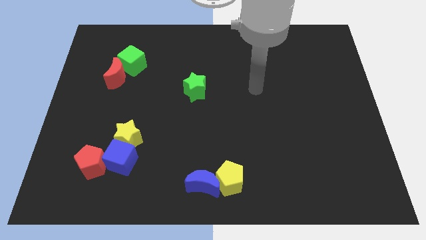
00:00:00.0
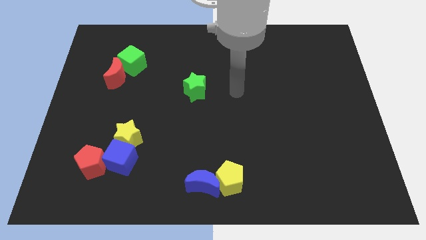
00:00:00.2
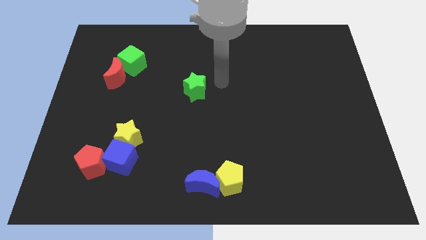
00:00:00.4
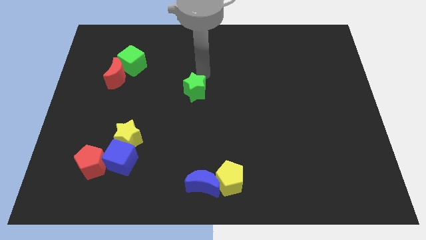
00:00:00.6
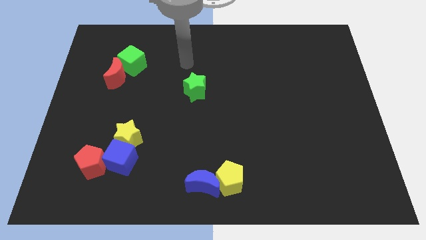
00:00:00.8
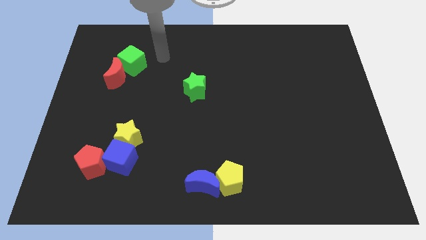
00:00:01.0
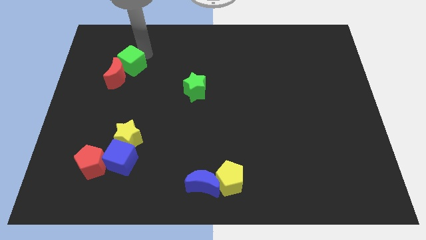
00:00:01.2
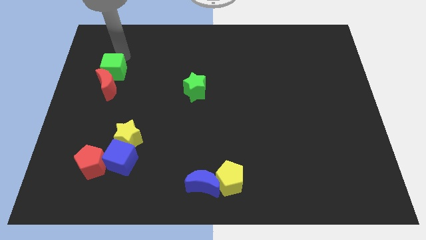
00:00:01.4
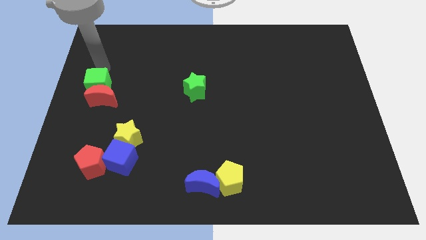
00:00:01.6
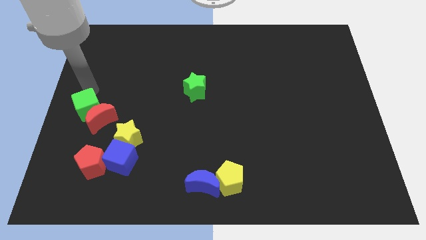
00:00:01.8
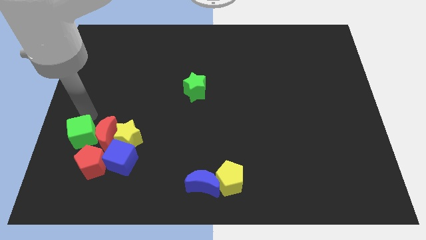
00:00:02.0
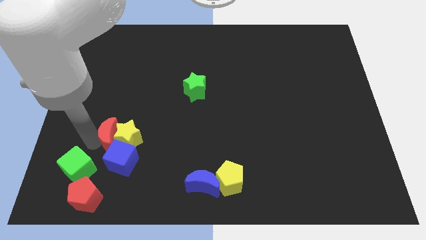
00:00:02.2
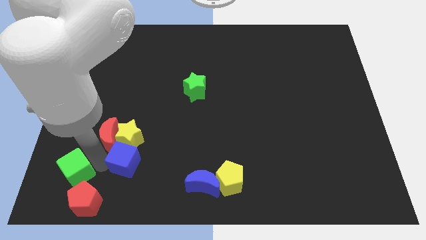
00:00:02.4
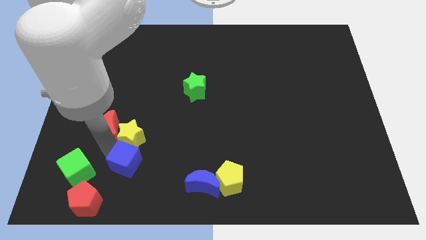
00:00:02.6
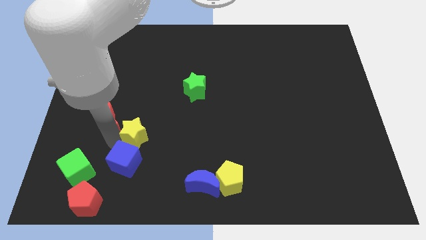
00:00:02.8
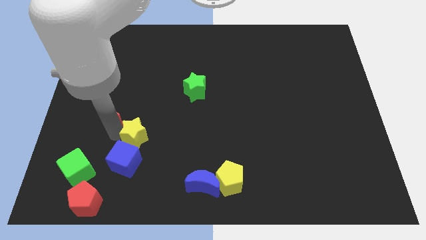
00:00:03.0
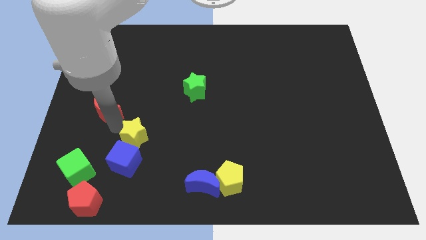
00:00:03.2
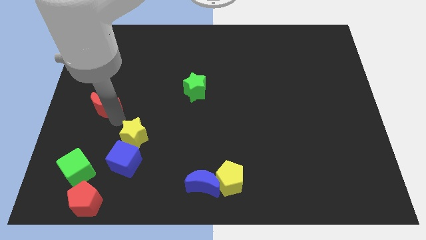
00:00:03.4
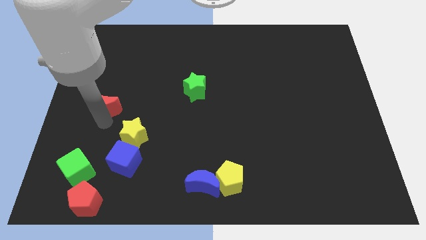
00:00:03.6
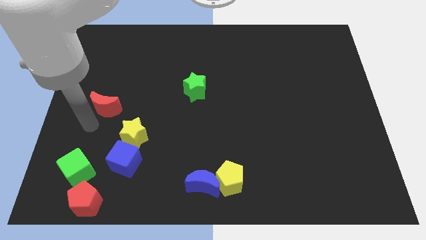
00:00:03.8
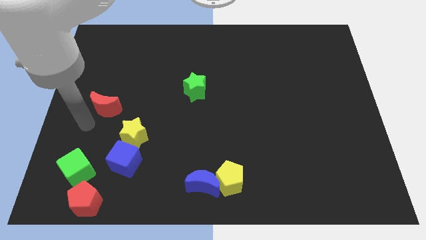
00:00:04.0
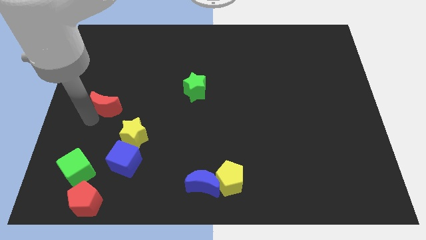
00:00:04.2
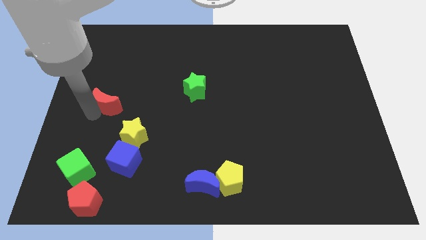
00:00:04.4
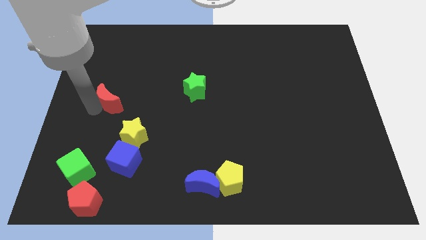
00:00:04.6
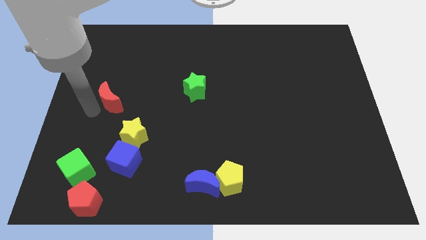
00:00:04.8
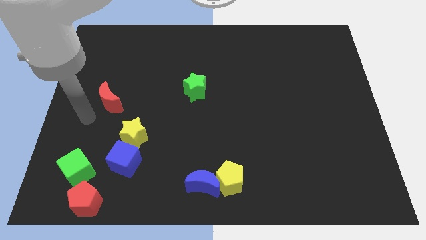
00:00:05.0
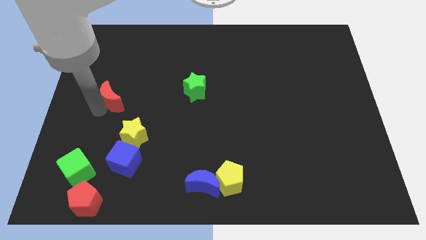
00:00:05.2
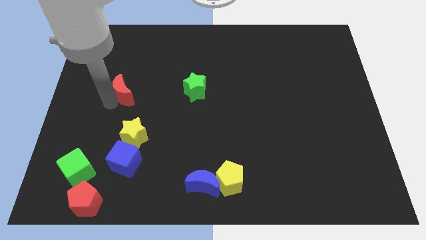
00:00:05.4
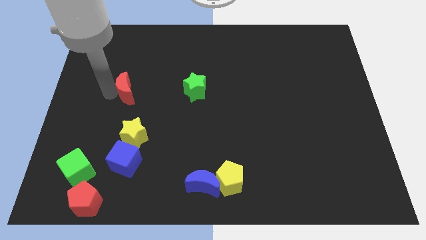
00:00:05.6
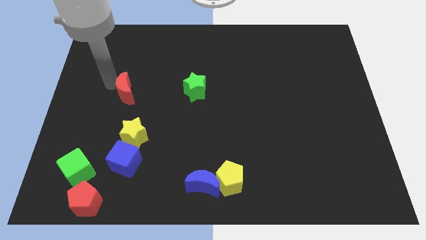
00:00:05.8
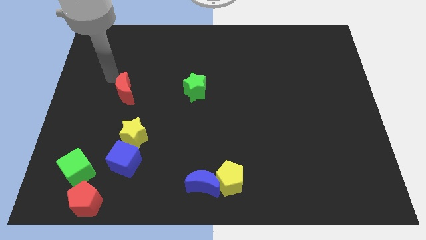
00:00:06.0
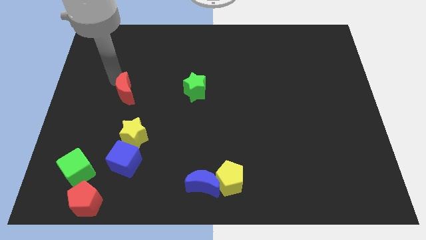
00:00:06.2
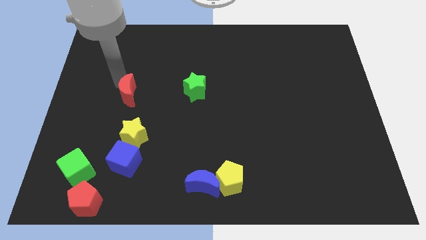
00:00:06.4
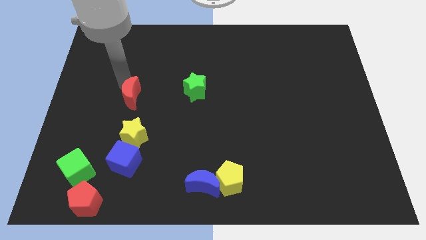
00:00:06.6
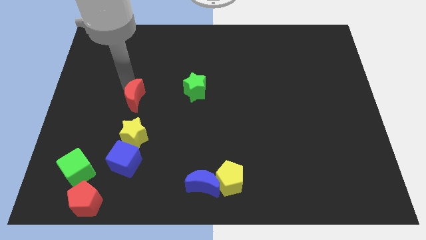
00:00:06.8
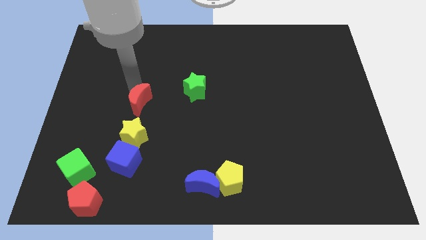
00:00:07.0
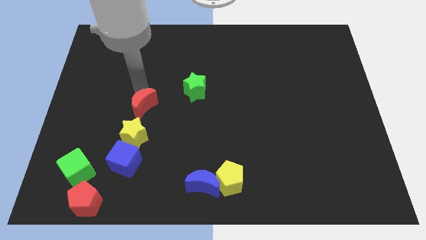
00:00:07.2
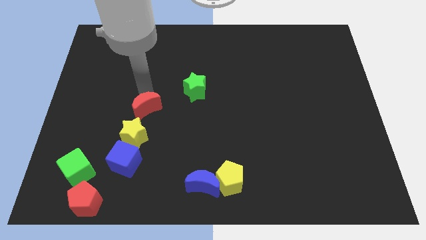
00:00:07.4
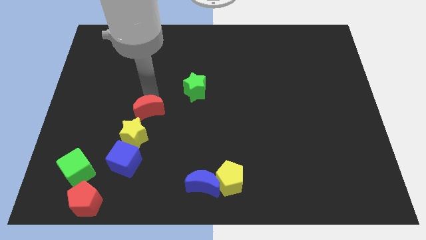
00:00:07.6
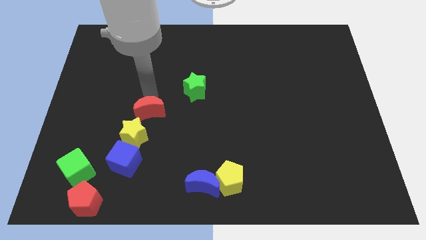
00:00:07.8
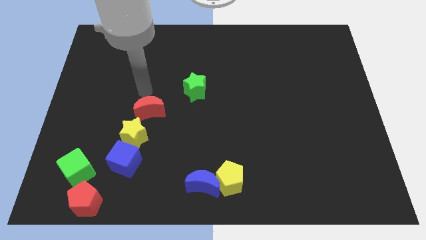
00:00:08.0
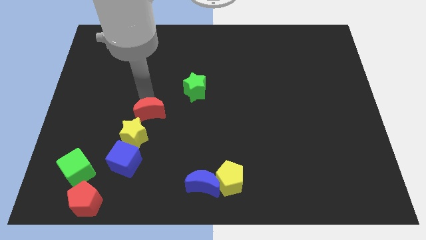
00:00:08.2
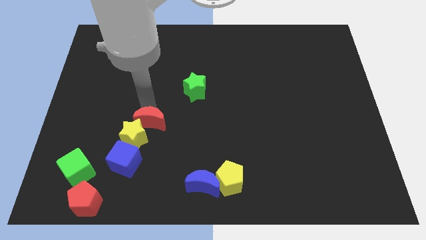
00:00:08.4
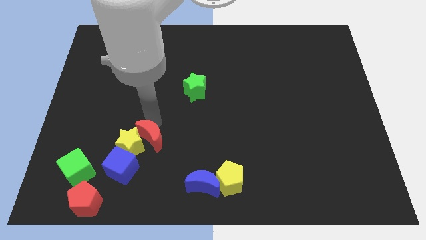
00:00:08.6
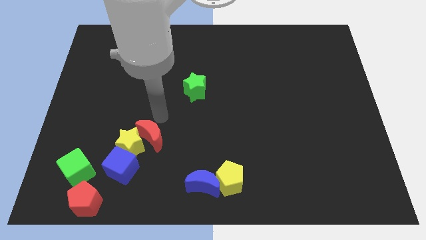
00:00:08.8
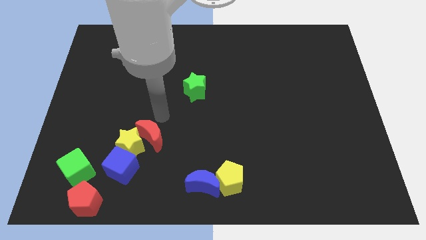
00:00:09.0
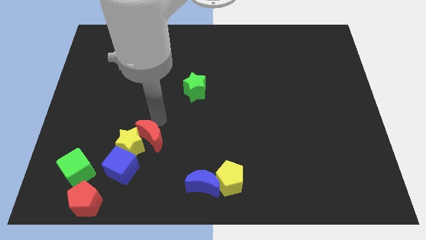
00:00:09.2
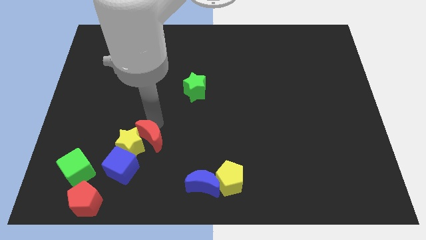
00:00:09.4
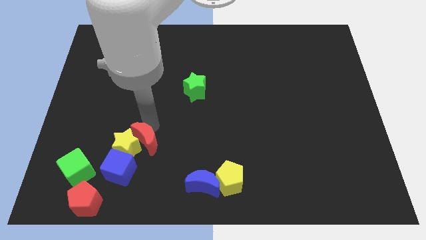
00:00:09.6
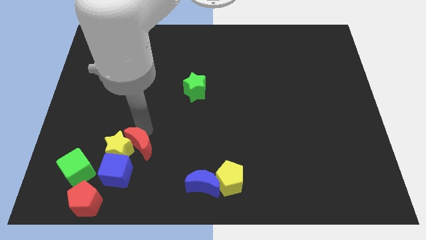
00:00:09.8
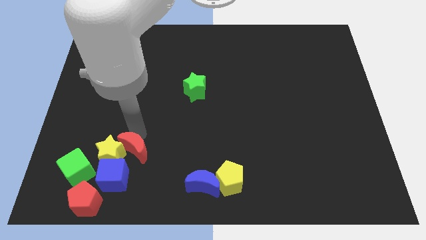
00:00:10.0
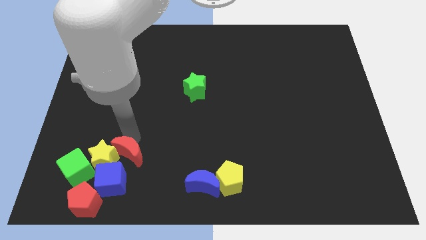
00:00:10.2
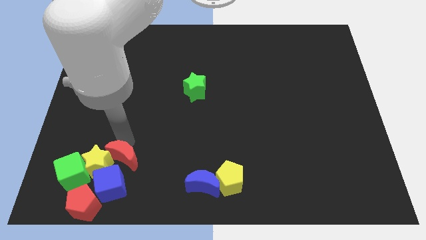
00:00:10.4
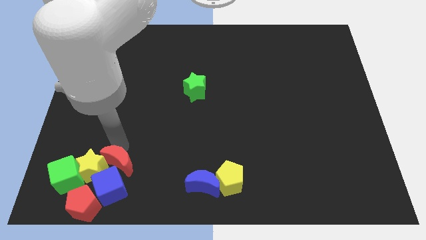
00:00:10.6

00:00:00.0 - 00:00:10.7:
push the red moon close to the blue cube

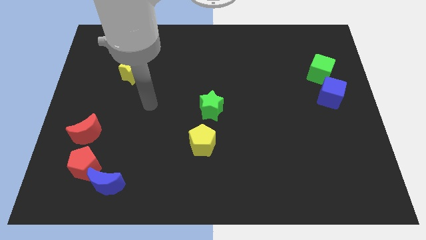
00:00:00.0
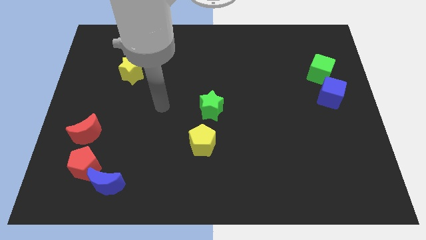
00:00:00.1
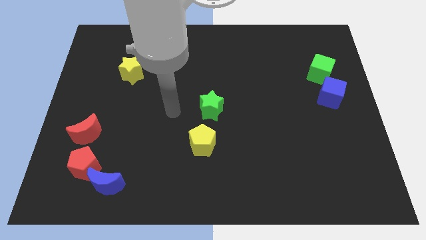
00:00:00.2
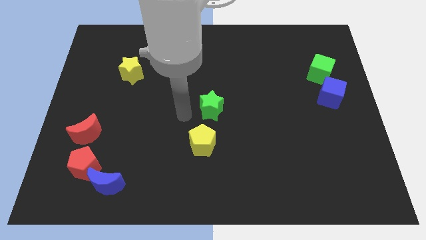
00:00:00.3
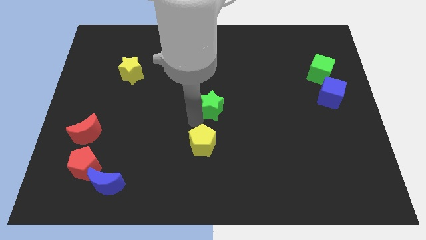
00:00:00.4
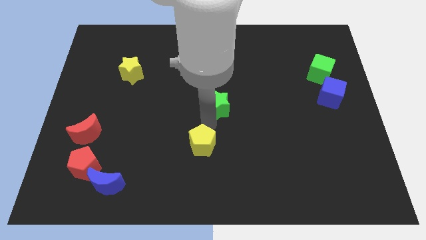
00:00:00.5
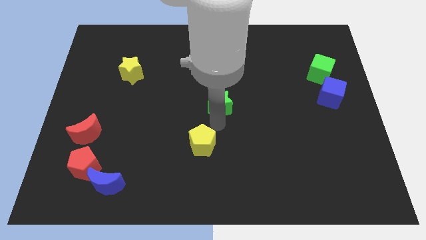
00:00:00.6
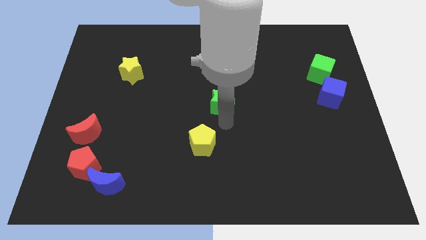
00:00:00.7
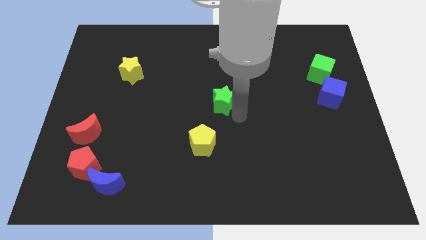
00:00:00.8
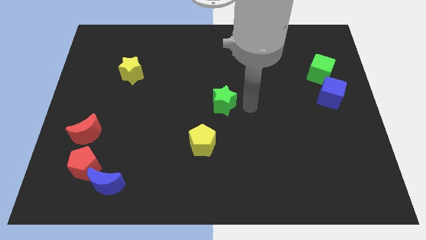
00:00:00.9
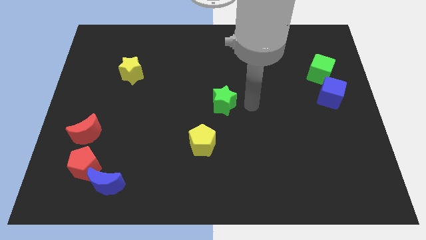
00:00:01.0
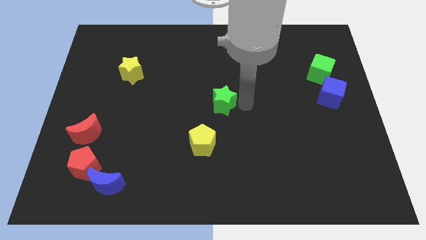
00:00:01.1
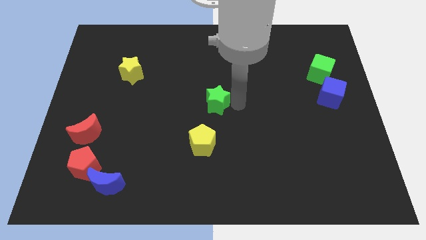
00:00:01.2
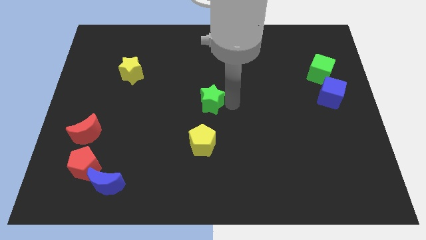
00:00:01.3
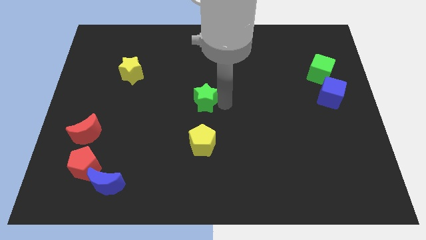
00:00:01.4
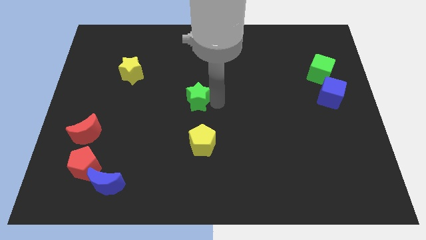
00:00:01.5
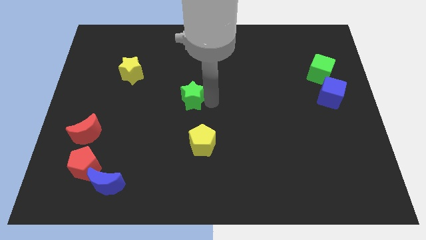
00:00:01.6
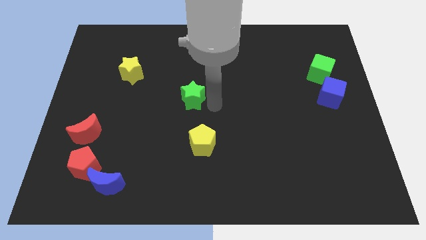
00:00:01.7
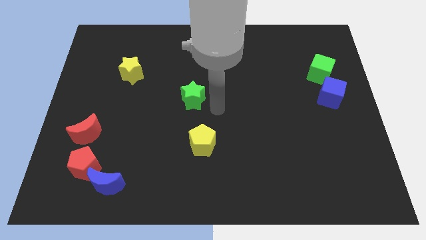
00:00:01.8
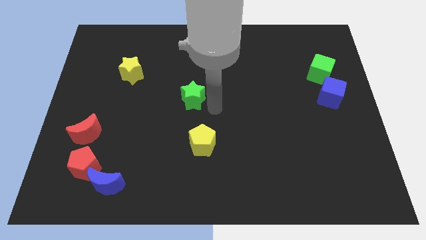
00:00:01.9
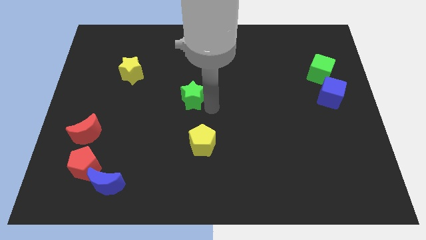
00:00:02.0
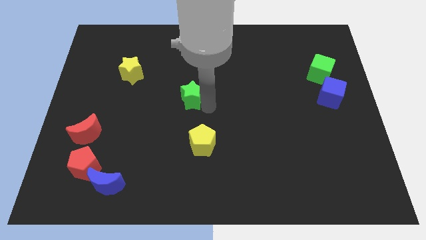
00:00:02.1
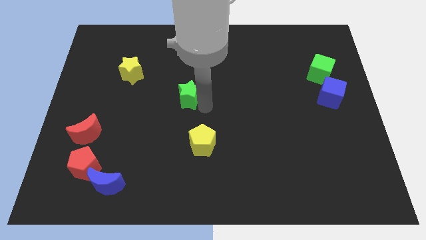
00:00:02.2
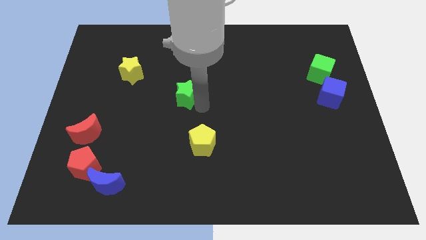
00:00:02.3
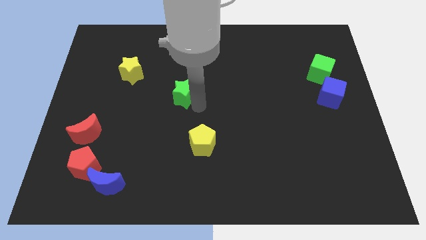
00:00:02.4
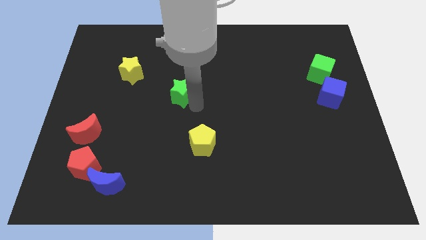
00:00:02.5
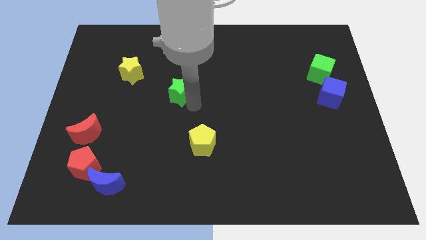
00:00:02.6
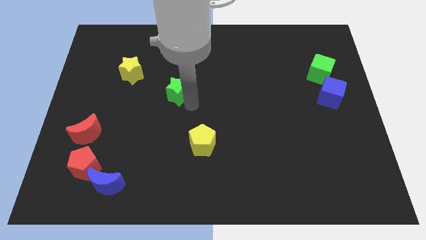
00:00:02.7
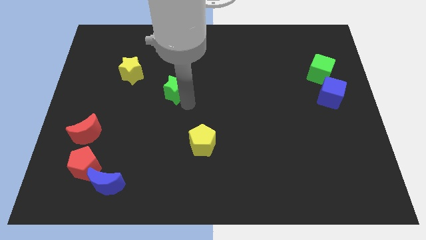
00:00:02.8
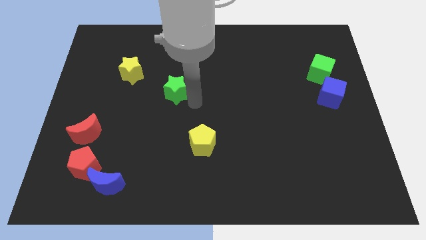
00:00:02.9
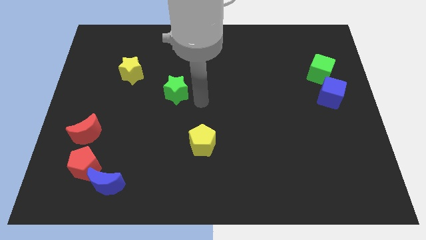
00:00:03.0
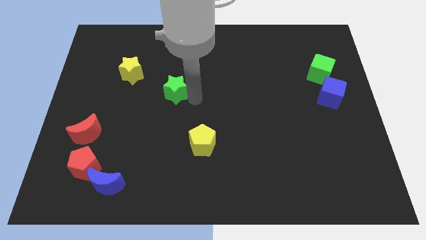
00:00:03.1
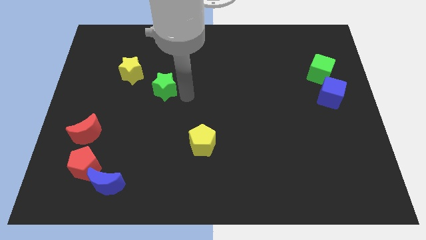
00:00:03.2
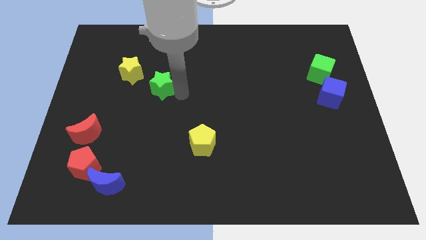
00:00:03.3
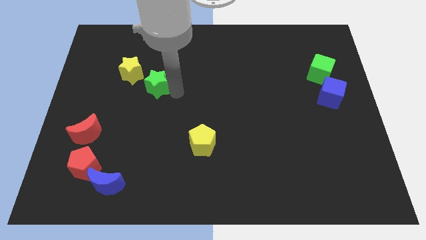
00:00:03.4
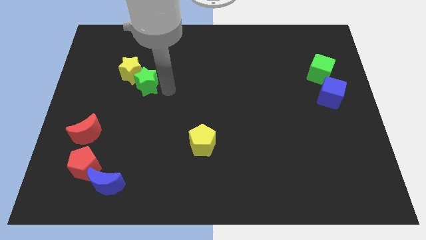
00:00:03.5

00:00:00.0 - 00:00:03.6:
put the green star close to the yellow star
